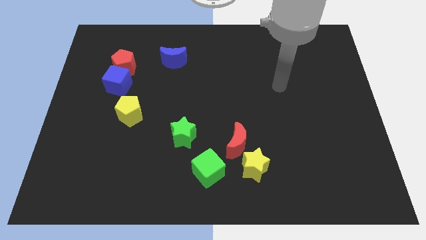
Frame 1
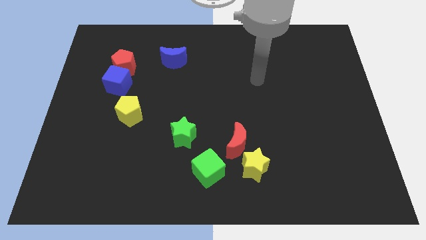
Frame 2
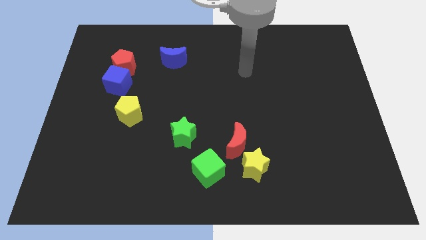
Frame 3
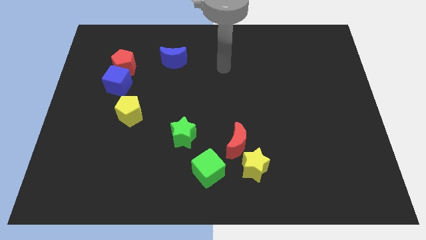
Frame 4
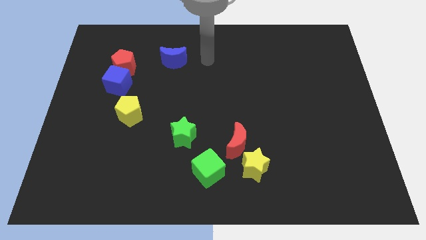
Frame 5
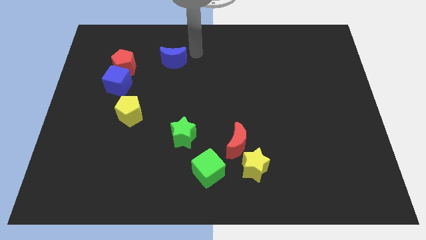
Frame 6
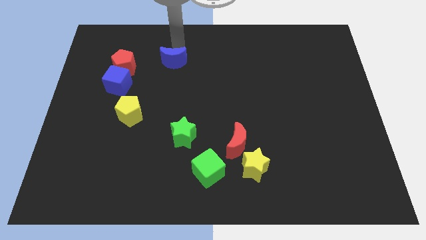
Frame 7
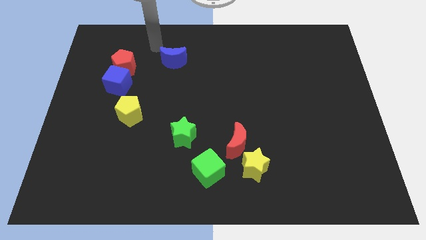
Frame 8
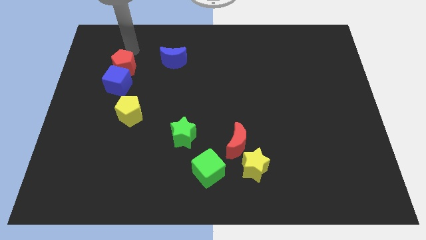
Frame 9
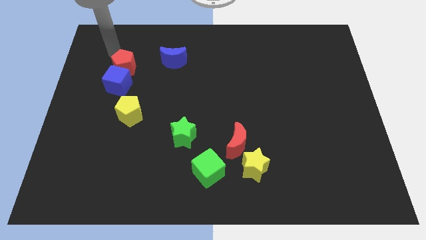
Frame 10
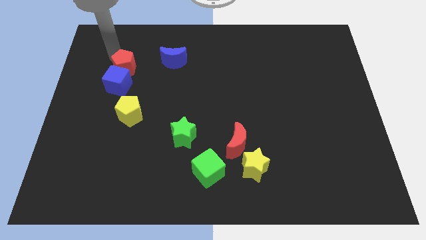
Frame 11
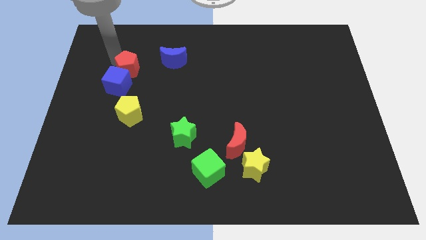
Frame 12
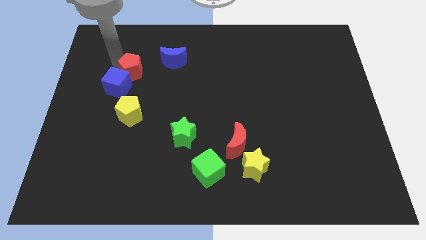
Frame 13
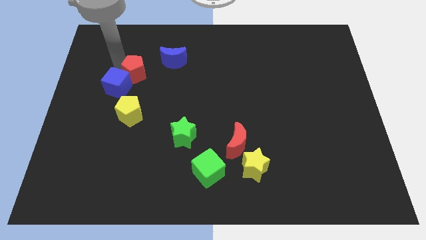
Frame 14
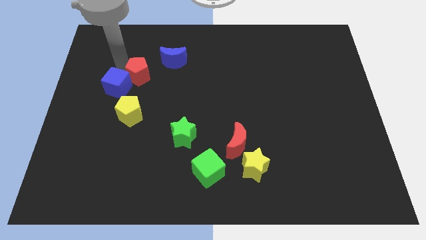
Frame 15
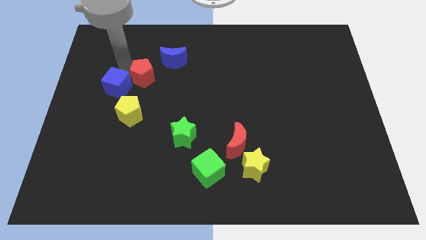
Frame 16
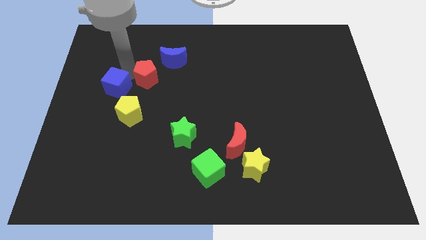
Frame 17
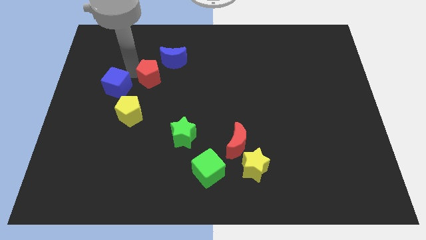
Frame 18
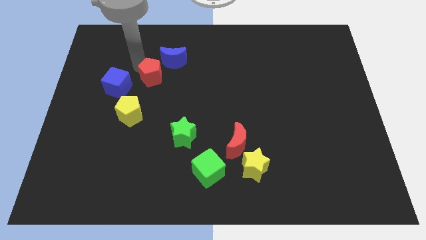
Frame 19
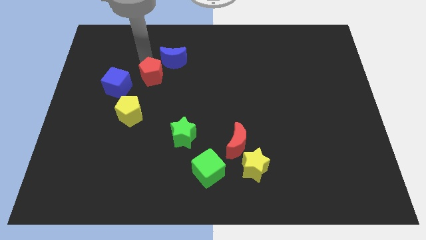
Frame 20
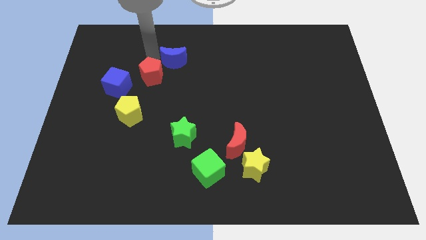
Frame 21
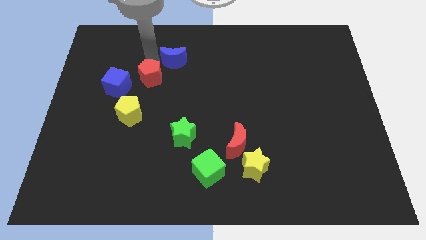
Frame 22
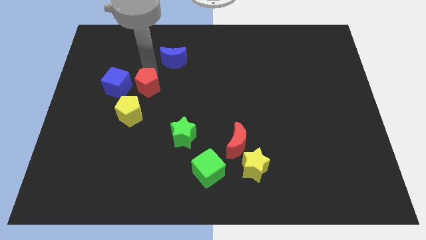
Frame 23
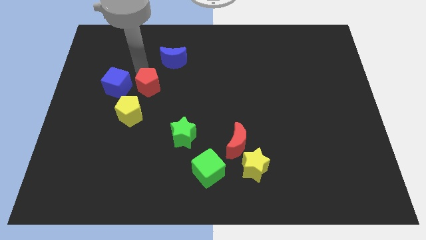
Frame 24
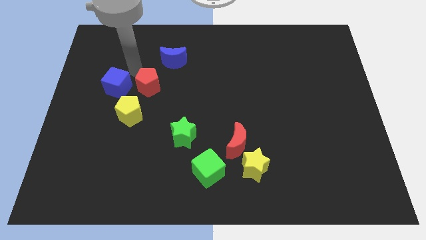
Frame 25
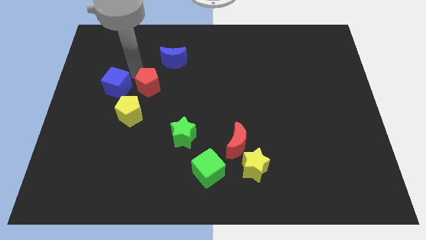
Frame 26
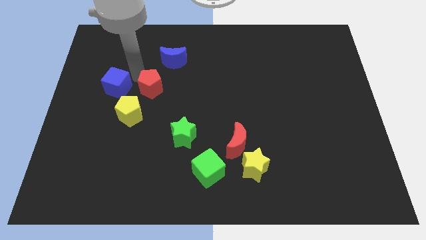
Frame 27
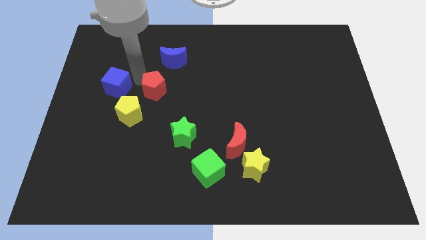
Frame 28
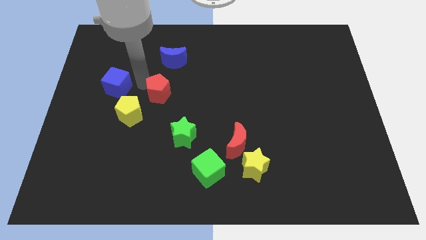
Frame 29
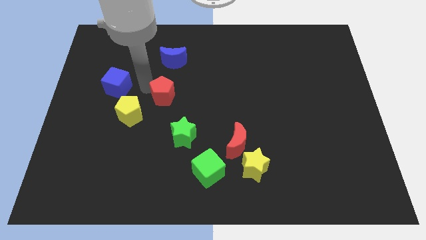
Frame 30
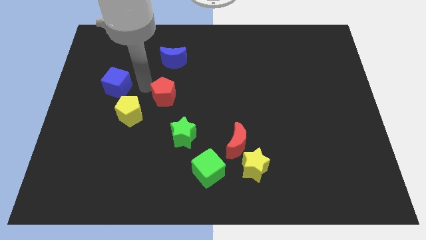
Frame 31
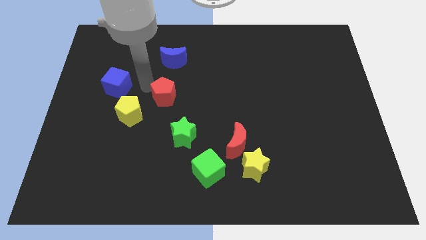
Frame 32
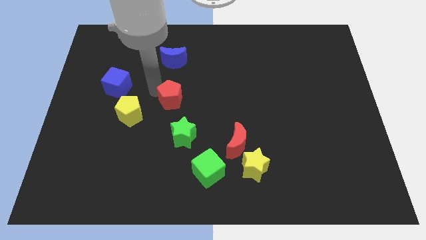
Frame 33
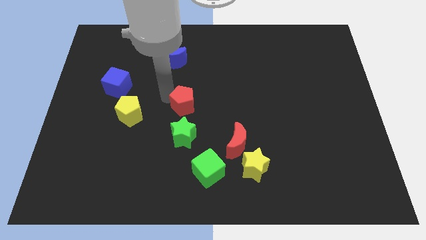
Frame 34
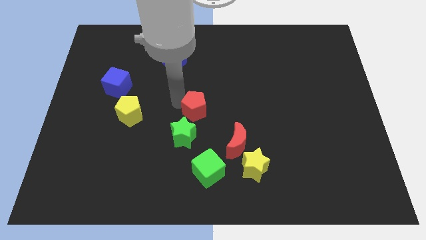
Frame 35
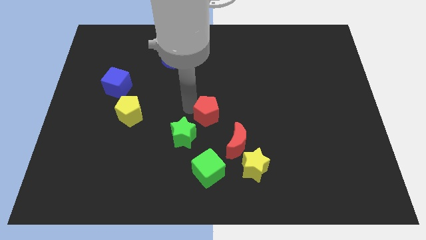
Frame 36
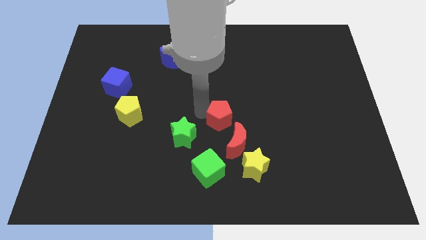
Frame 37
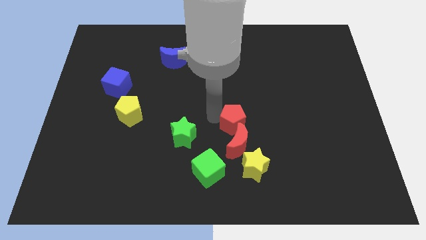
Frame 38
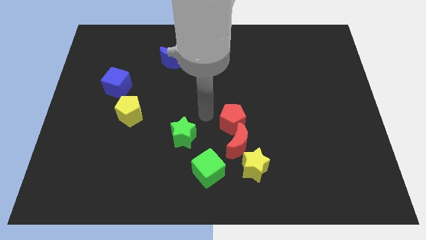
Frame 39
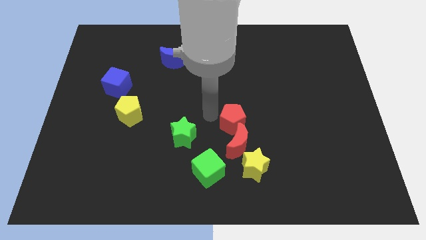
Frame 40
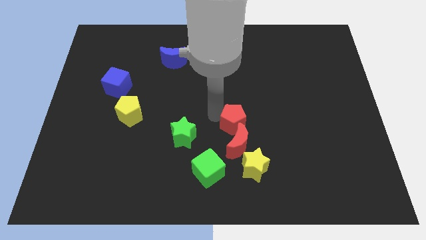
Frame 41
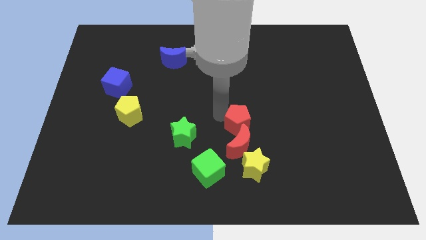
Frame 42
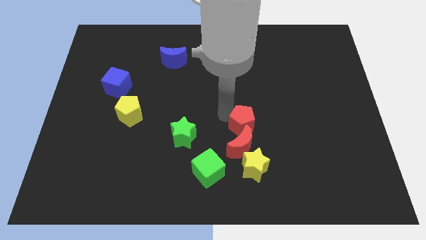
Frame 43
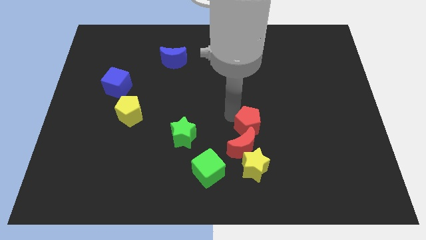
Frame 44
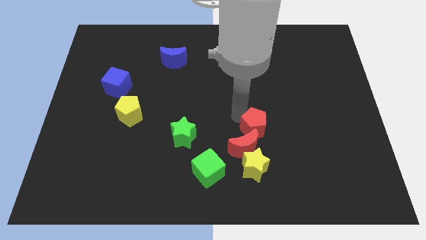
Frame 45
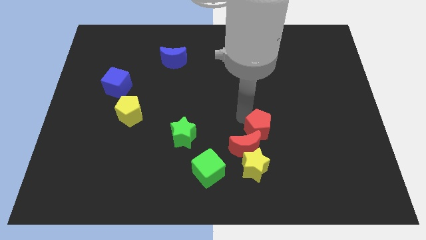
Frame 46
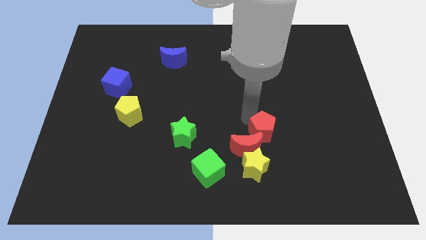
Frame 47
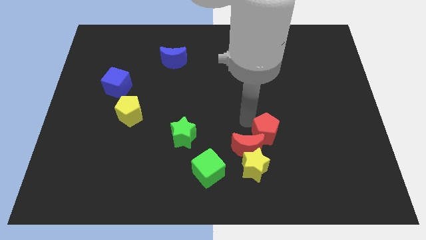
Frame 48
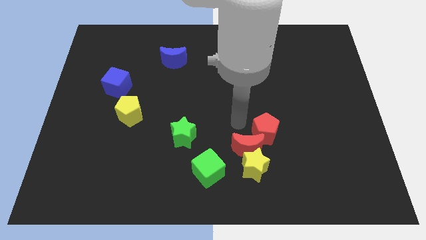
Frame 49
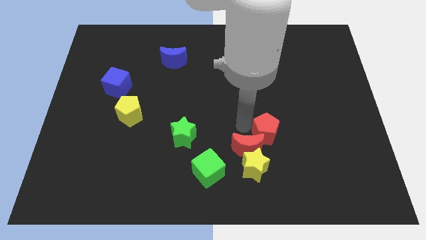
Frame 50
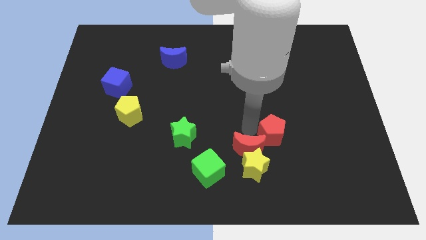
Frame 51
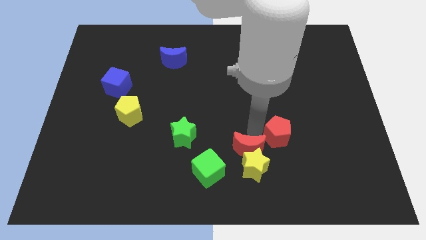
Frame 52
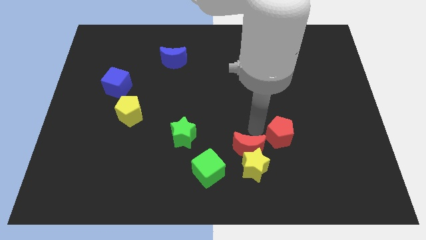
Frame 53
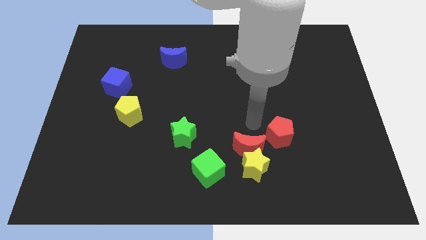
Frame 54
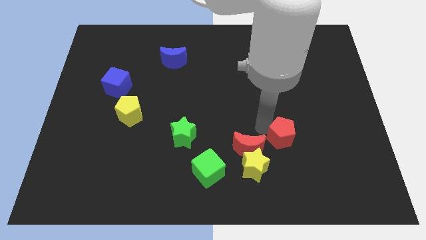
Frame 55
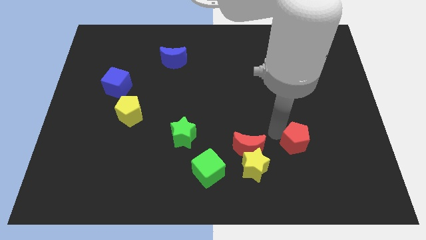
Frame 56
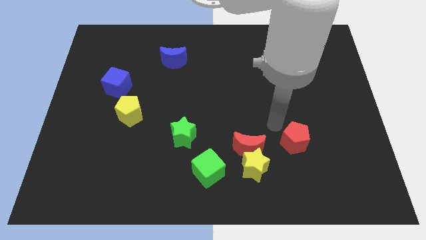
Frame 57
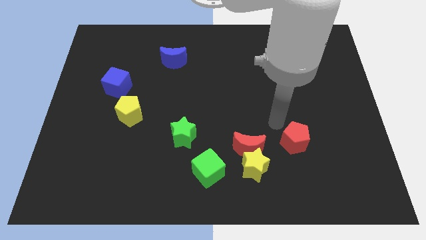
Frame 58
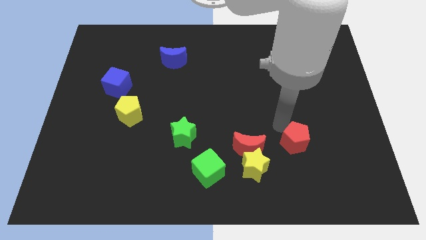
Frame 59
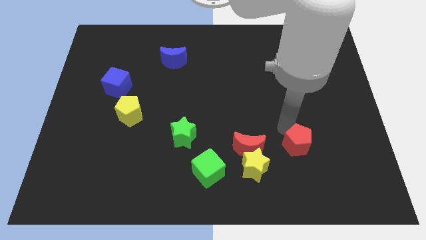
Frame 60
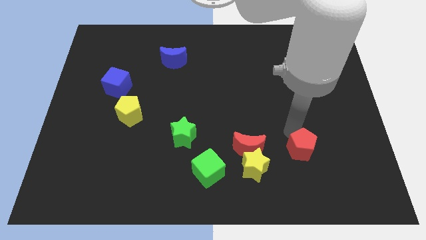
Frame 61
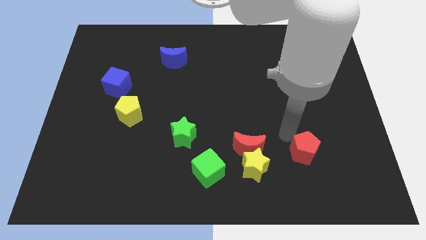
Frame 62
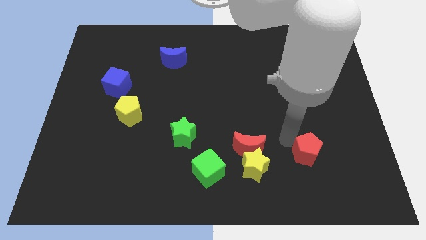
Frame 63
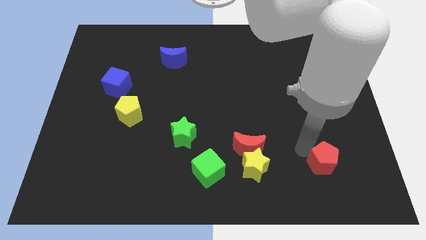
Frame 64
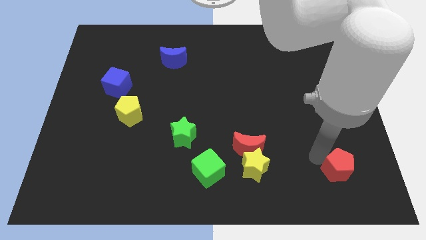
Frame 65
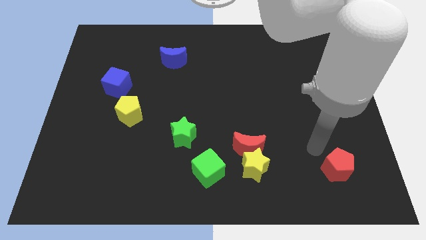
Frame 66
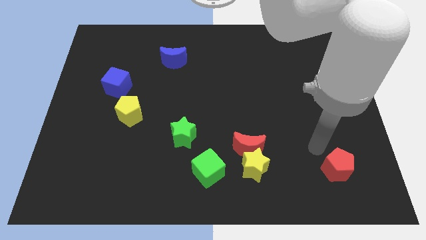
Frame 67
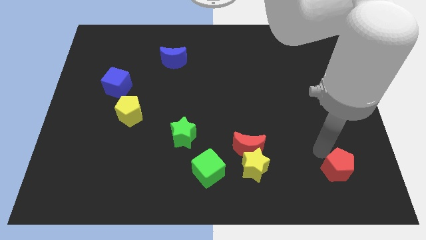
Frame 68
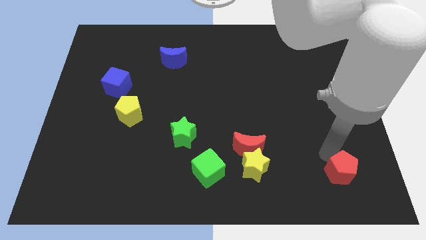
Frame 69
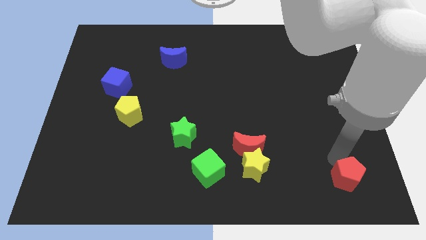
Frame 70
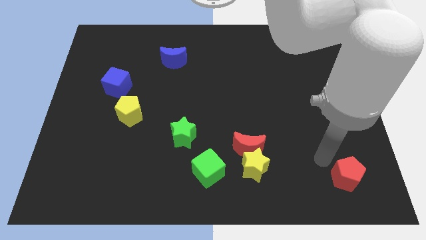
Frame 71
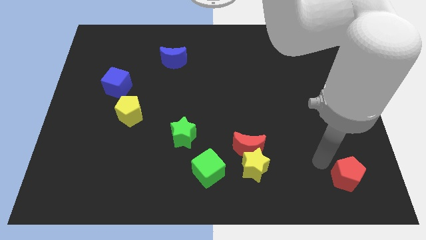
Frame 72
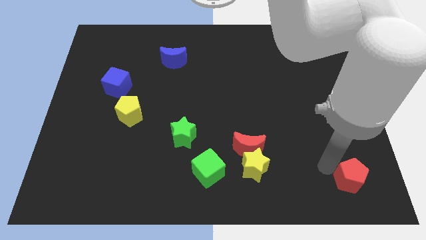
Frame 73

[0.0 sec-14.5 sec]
put the red pentagon to the bottom right
